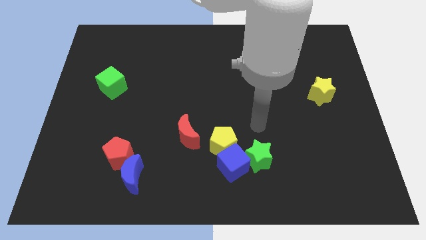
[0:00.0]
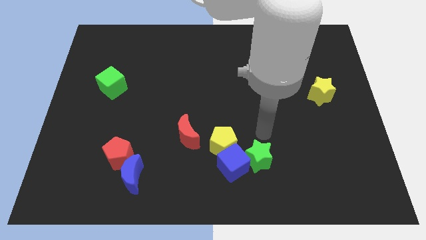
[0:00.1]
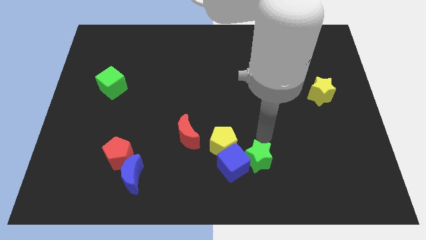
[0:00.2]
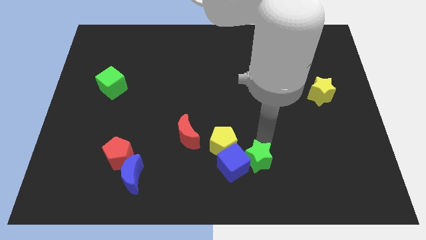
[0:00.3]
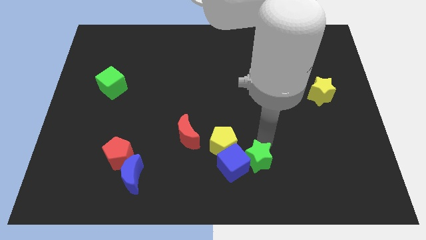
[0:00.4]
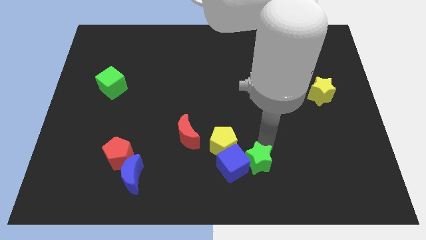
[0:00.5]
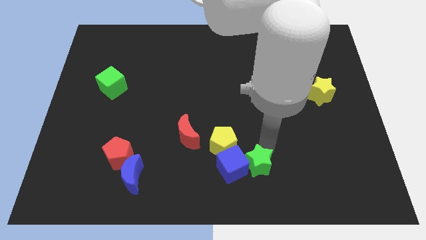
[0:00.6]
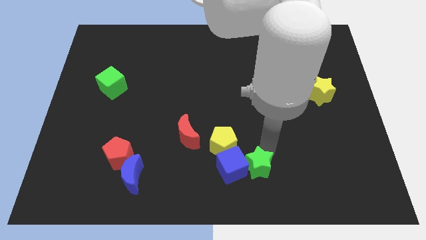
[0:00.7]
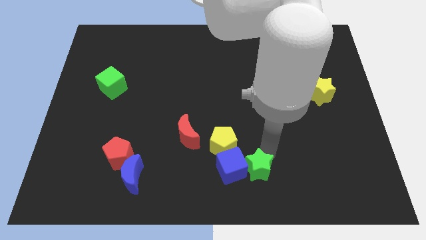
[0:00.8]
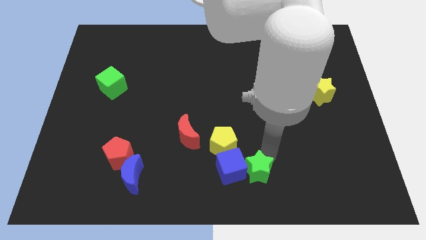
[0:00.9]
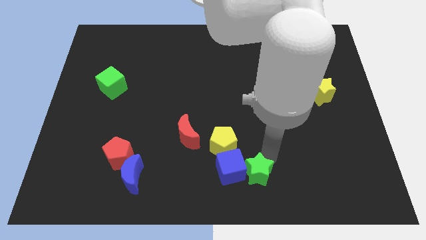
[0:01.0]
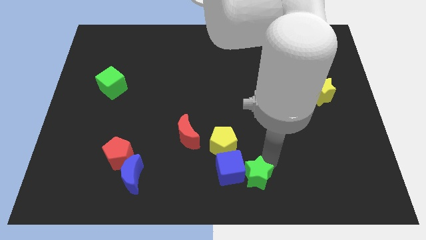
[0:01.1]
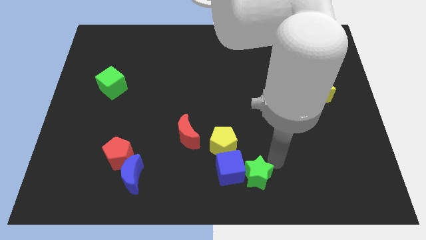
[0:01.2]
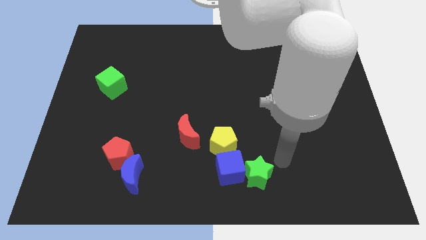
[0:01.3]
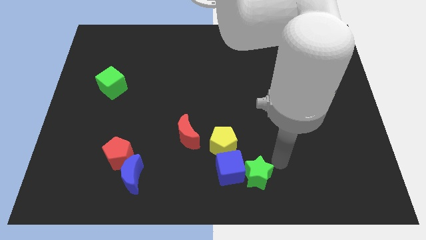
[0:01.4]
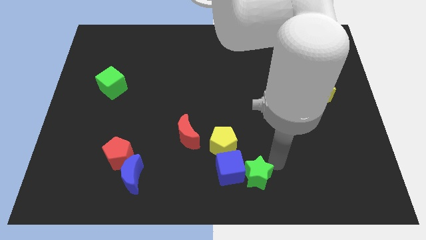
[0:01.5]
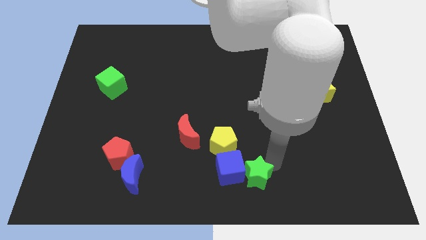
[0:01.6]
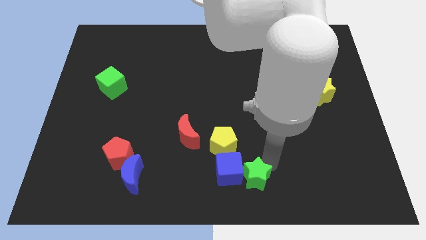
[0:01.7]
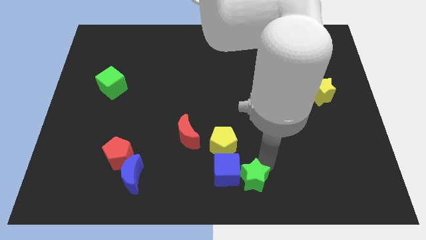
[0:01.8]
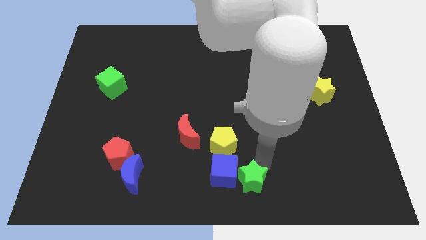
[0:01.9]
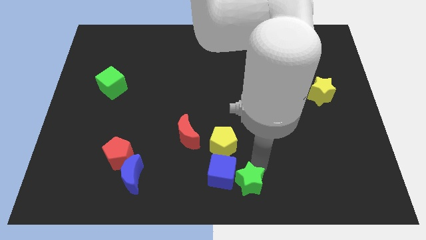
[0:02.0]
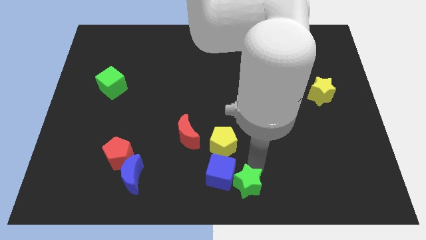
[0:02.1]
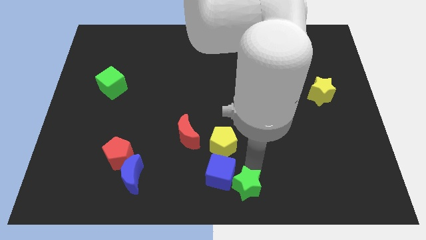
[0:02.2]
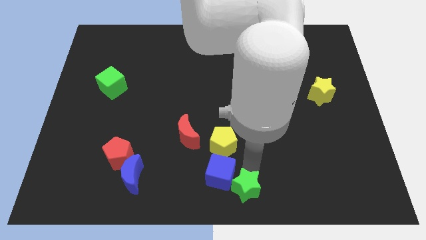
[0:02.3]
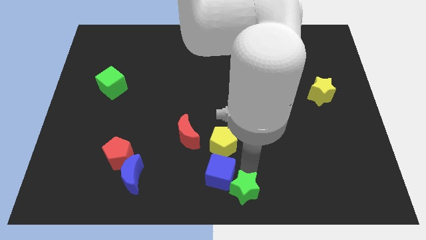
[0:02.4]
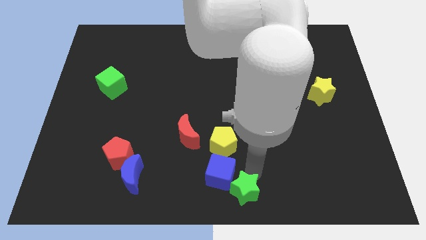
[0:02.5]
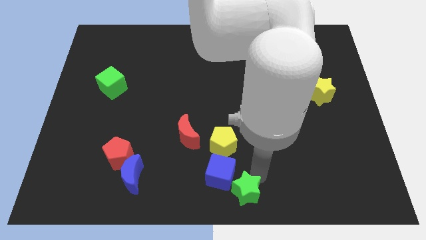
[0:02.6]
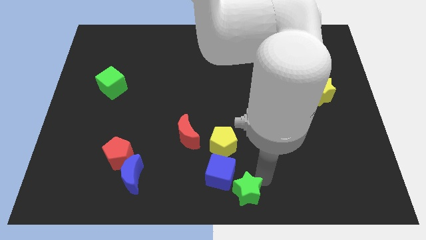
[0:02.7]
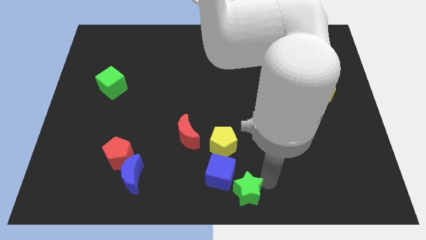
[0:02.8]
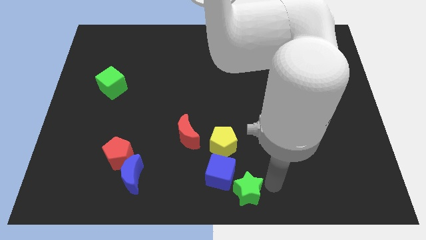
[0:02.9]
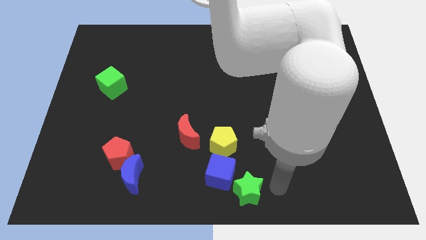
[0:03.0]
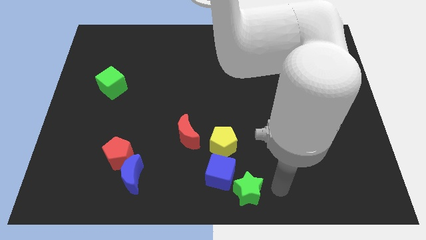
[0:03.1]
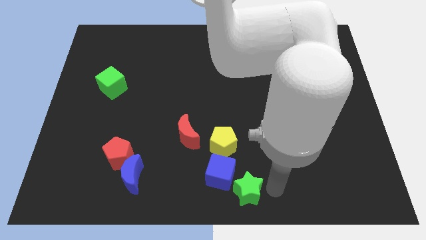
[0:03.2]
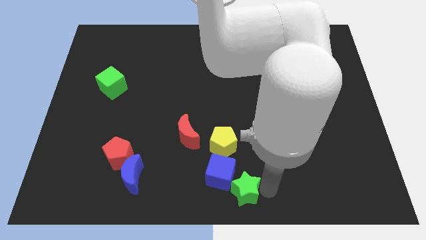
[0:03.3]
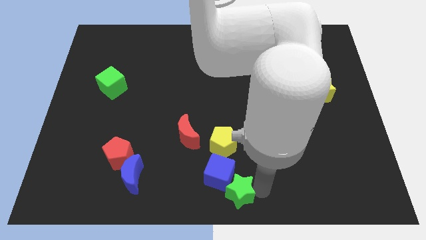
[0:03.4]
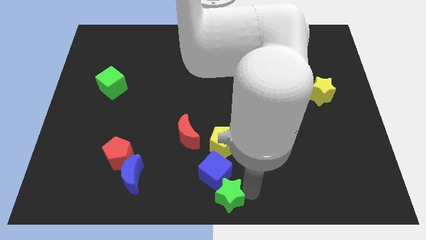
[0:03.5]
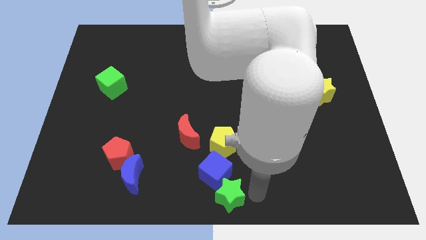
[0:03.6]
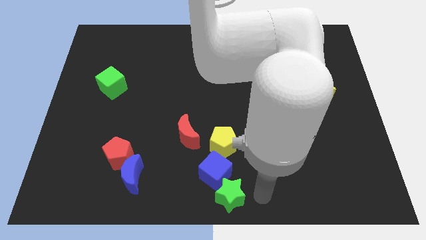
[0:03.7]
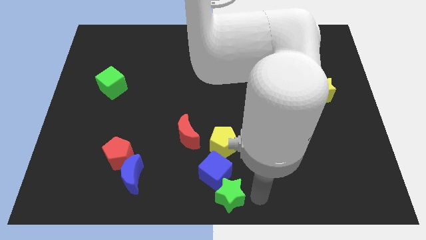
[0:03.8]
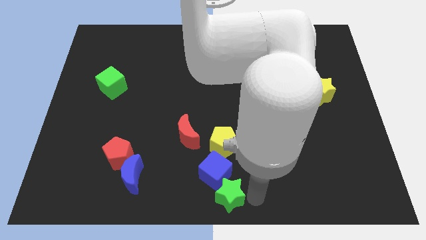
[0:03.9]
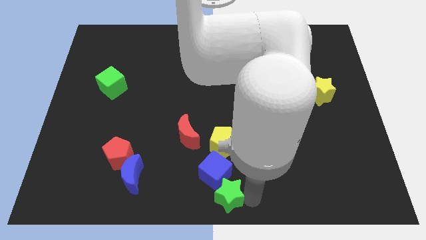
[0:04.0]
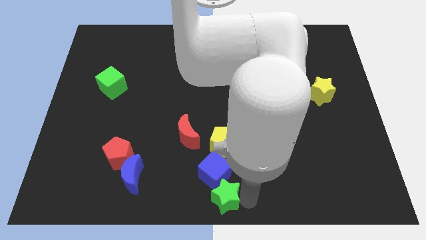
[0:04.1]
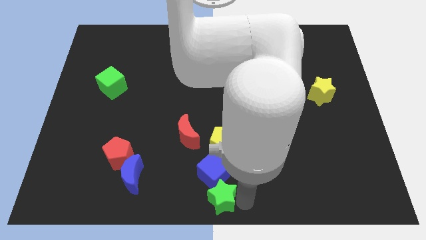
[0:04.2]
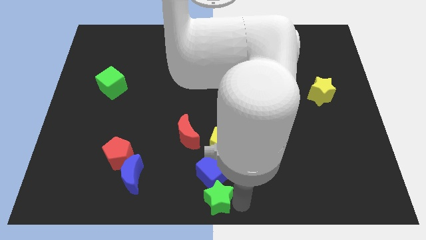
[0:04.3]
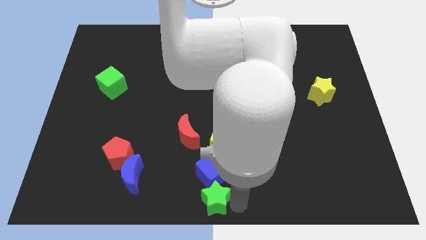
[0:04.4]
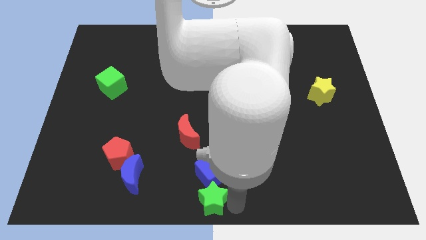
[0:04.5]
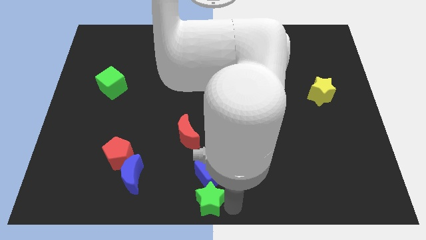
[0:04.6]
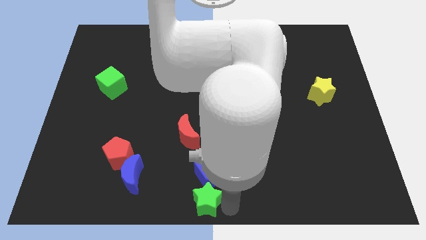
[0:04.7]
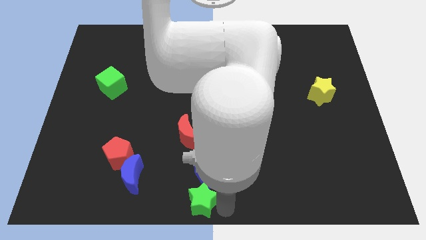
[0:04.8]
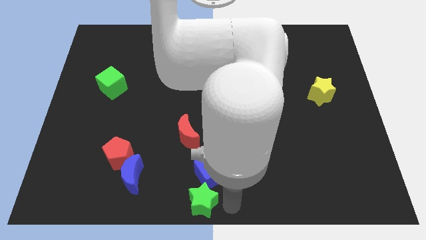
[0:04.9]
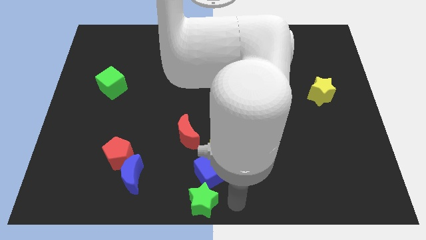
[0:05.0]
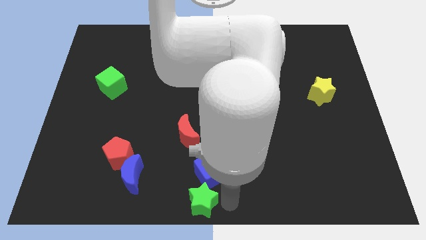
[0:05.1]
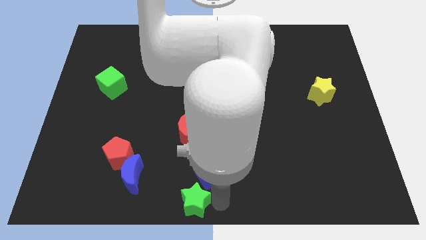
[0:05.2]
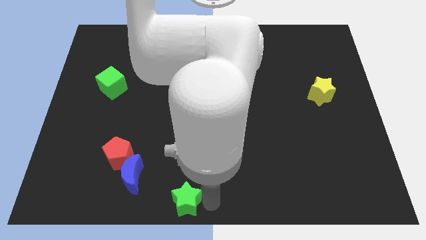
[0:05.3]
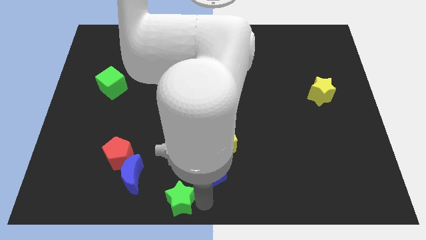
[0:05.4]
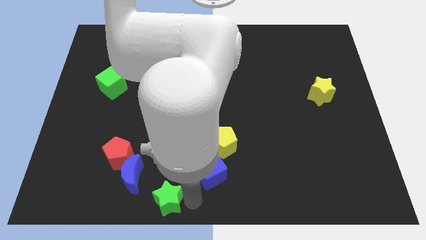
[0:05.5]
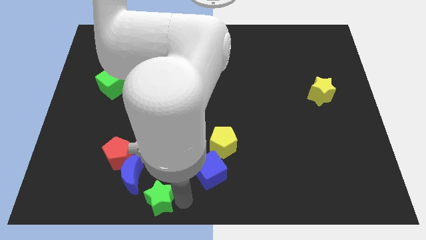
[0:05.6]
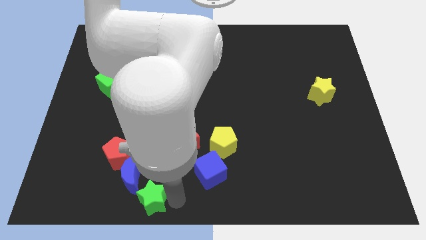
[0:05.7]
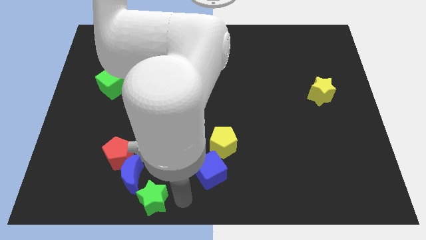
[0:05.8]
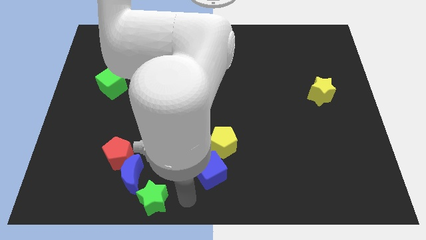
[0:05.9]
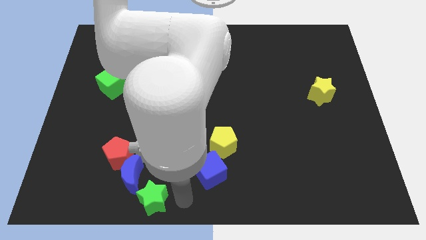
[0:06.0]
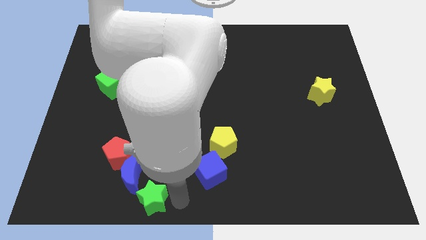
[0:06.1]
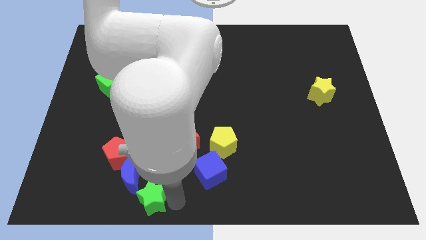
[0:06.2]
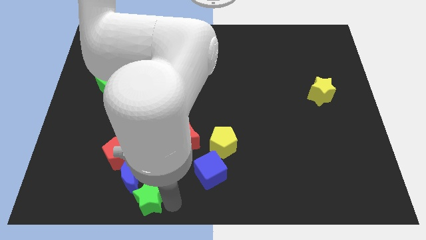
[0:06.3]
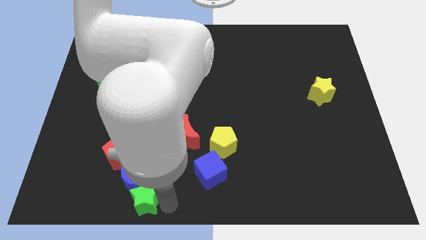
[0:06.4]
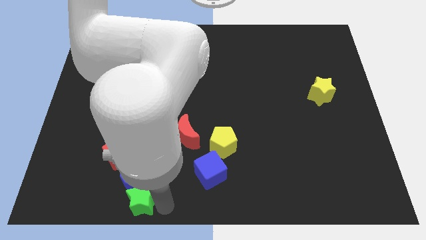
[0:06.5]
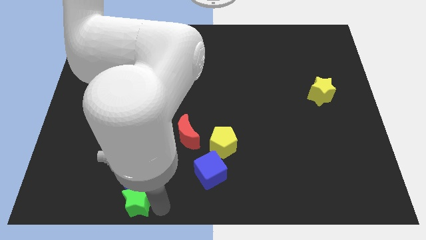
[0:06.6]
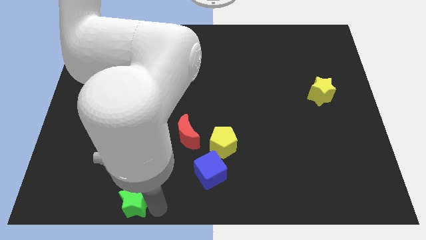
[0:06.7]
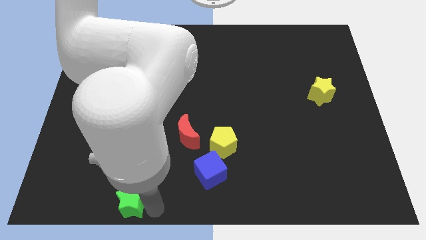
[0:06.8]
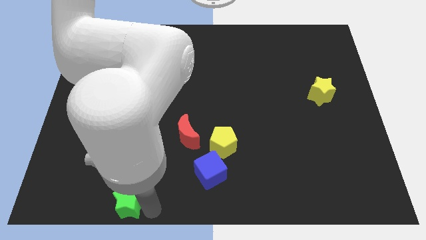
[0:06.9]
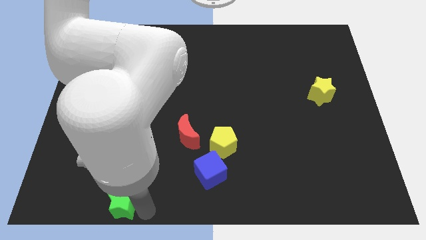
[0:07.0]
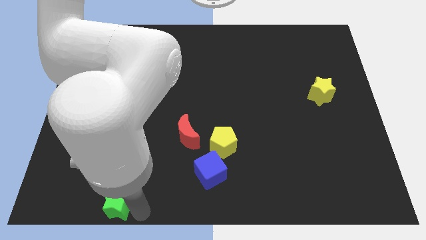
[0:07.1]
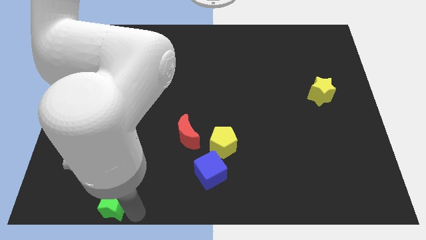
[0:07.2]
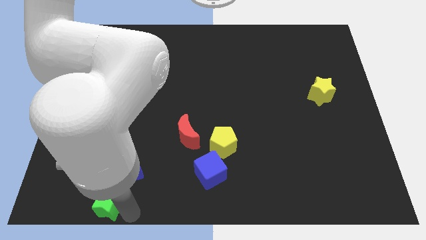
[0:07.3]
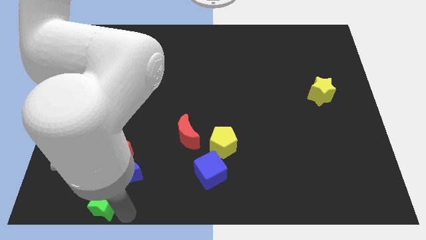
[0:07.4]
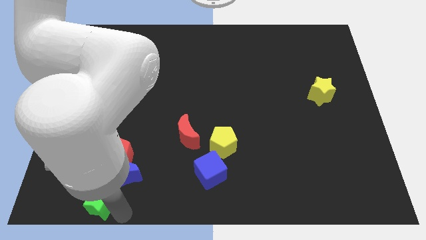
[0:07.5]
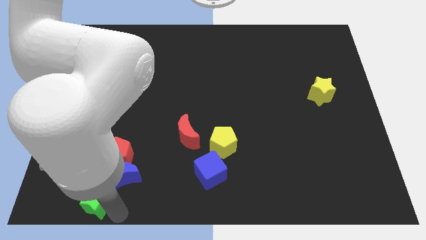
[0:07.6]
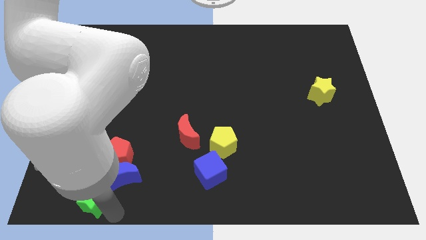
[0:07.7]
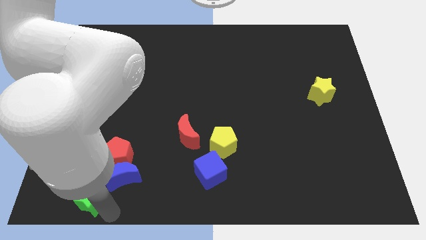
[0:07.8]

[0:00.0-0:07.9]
slide the green star to the bottom left side of the red pentagon

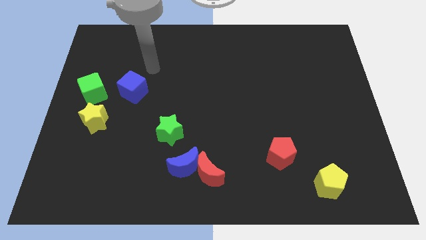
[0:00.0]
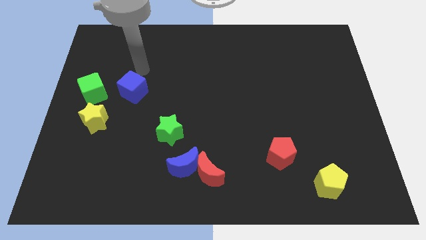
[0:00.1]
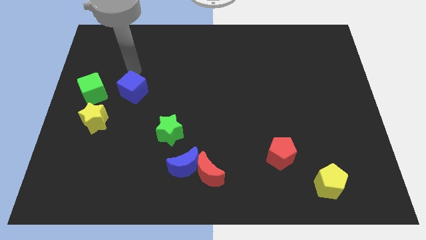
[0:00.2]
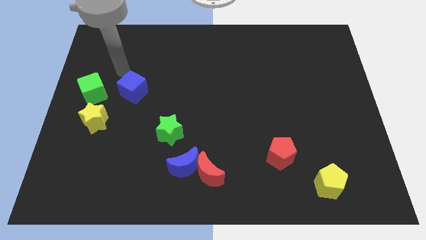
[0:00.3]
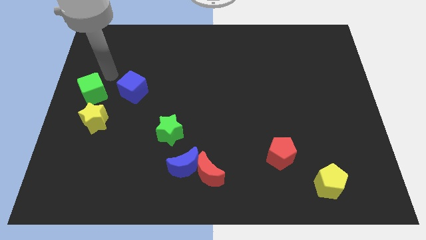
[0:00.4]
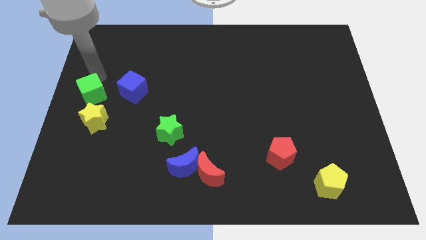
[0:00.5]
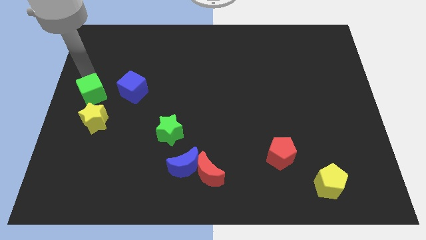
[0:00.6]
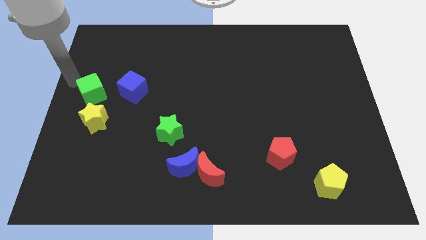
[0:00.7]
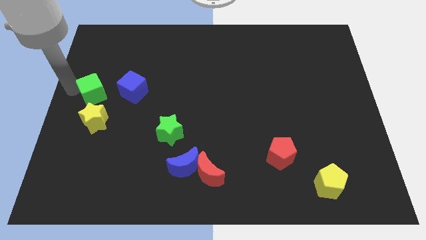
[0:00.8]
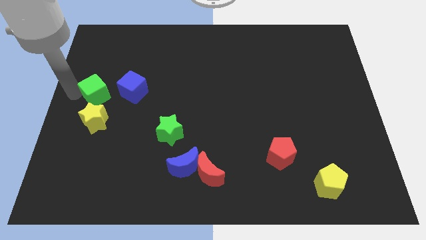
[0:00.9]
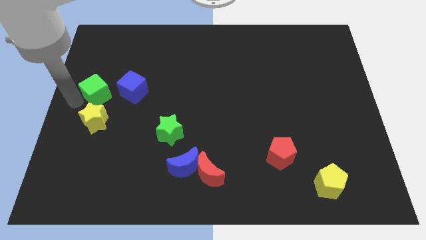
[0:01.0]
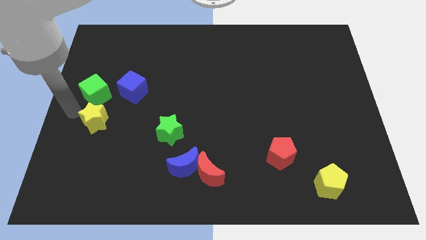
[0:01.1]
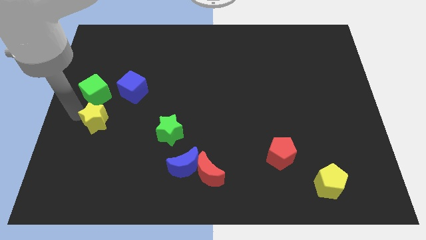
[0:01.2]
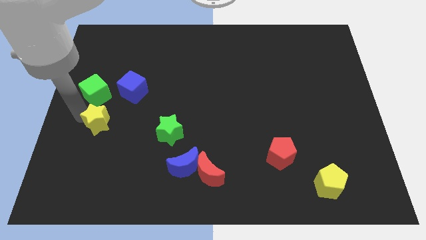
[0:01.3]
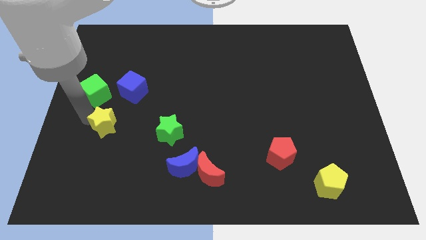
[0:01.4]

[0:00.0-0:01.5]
slide the yellow star to the left side of the green star
